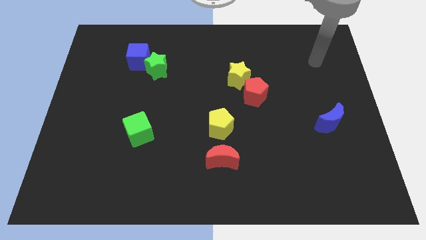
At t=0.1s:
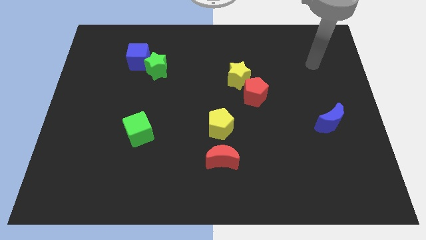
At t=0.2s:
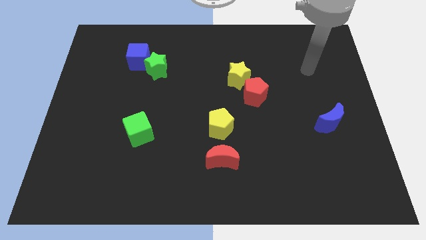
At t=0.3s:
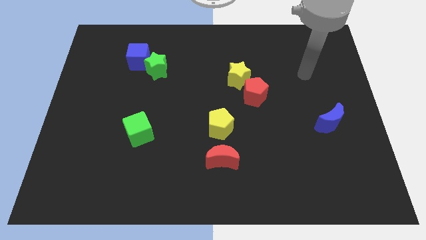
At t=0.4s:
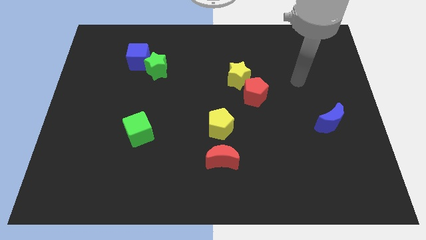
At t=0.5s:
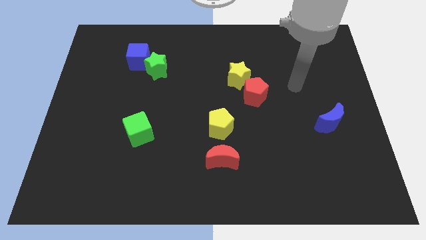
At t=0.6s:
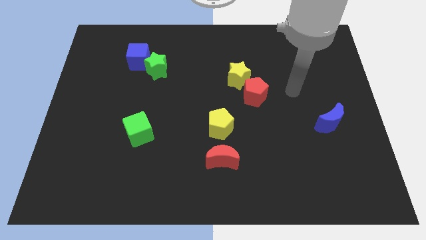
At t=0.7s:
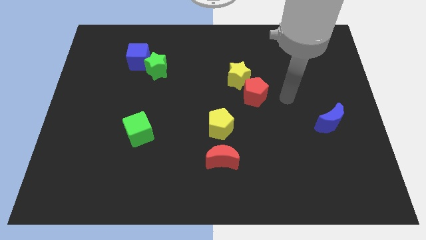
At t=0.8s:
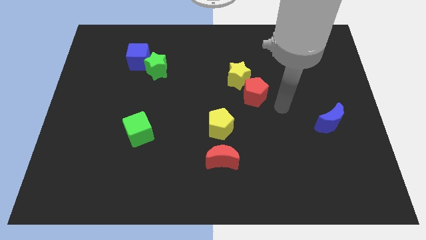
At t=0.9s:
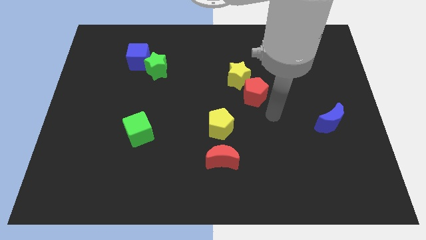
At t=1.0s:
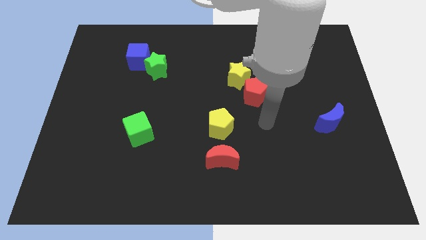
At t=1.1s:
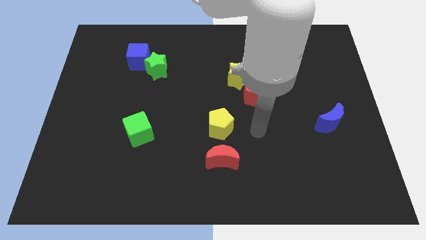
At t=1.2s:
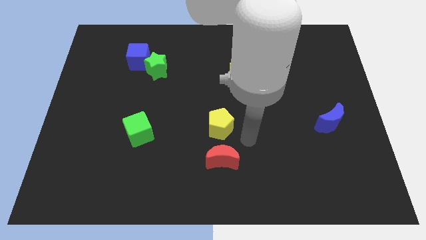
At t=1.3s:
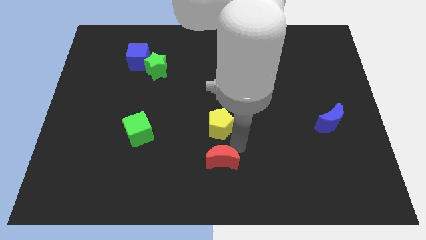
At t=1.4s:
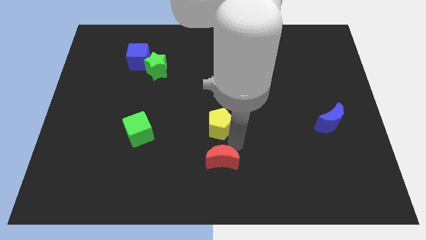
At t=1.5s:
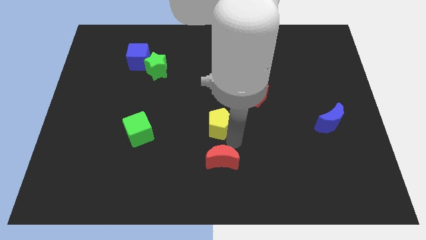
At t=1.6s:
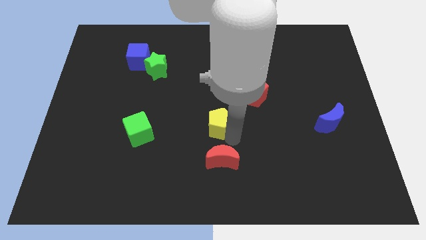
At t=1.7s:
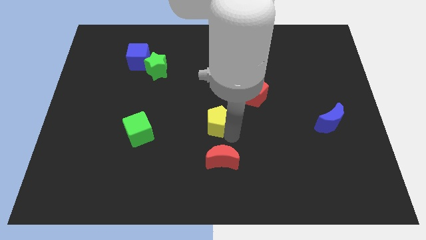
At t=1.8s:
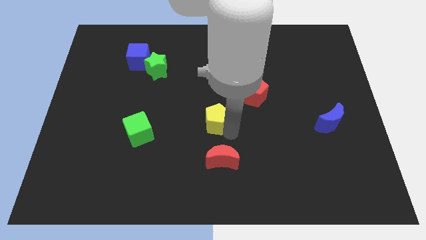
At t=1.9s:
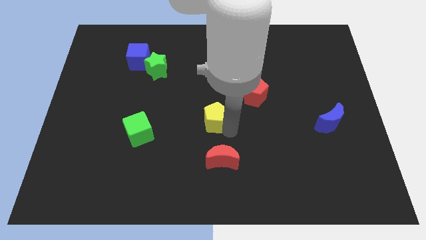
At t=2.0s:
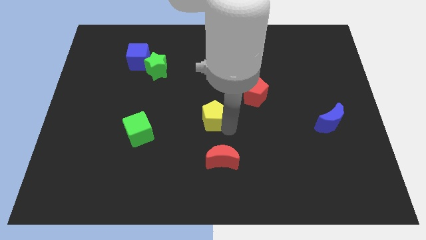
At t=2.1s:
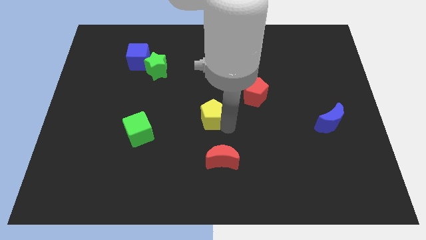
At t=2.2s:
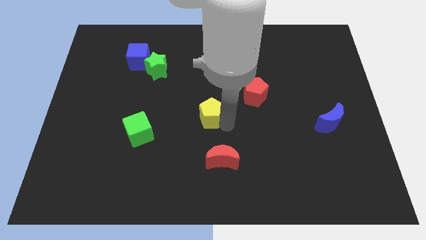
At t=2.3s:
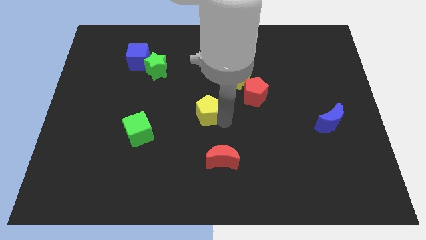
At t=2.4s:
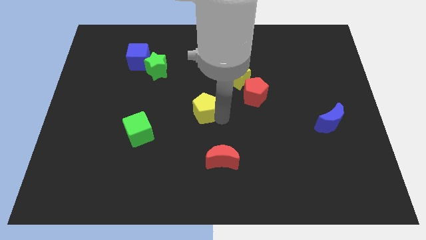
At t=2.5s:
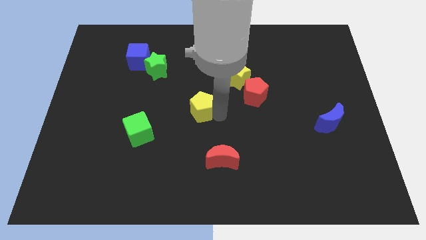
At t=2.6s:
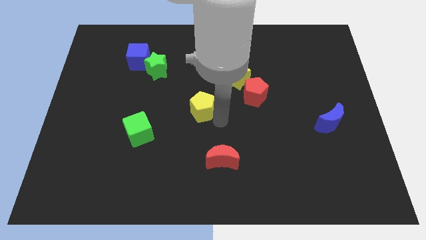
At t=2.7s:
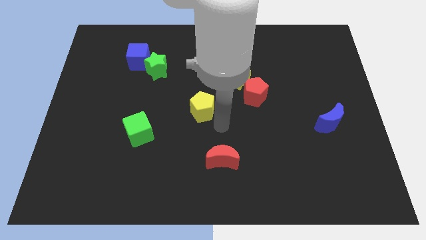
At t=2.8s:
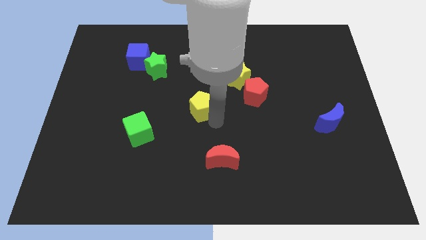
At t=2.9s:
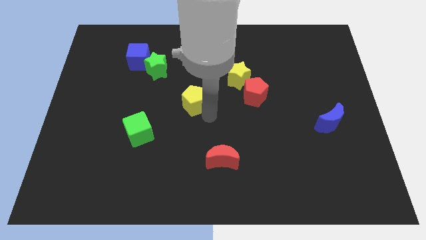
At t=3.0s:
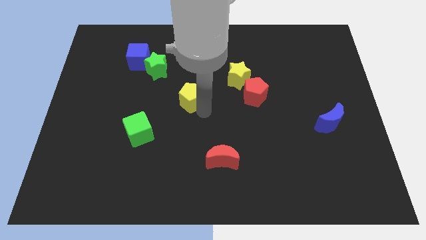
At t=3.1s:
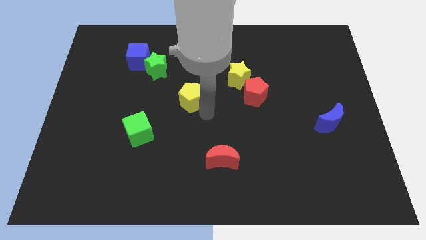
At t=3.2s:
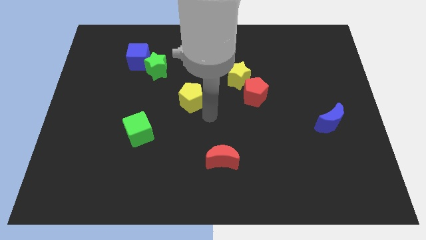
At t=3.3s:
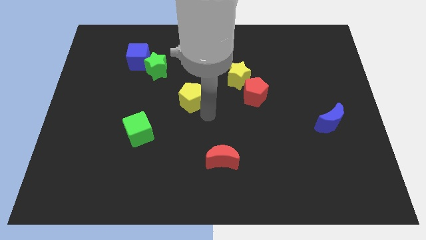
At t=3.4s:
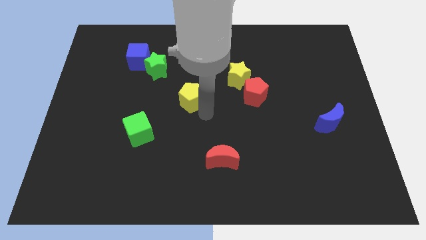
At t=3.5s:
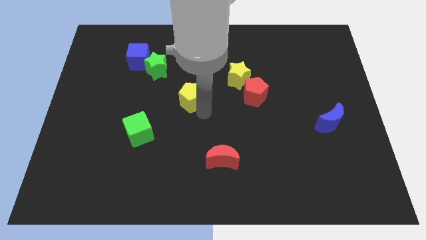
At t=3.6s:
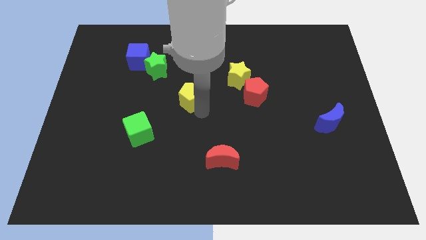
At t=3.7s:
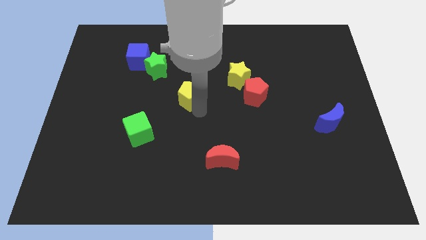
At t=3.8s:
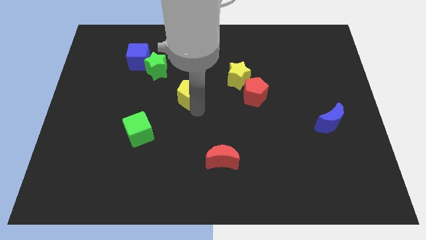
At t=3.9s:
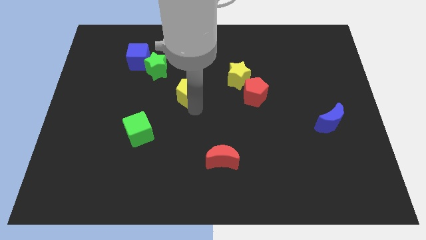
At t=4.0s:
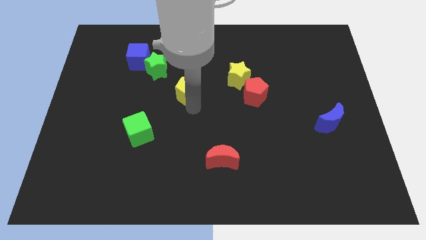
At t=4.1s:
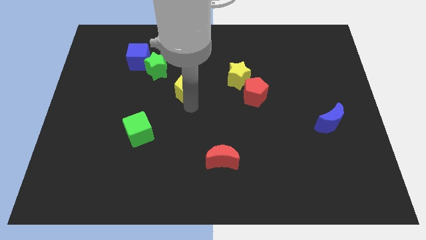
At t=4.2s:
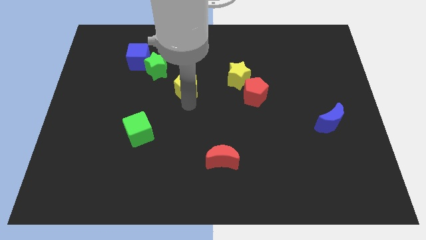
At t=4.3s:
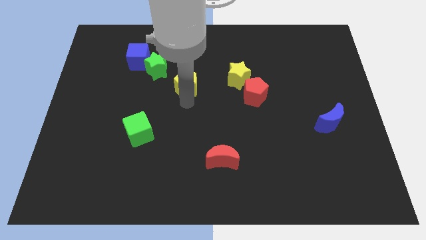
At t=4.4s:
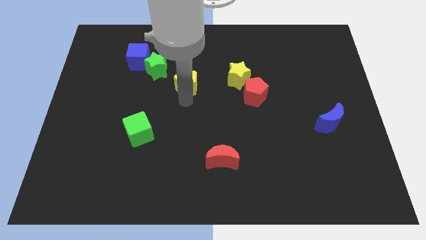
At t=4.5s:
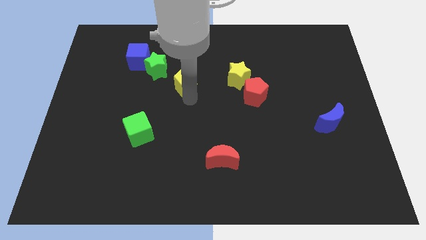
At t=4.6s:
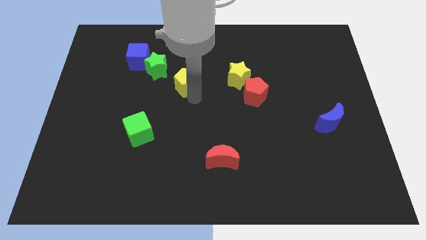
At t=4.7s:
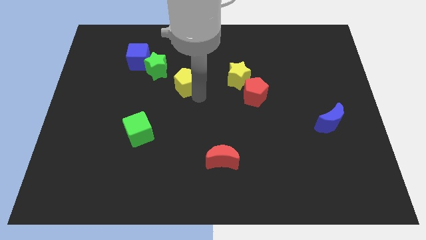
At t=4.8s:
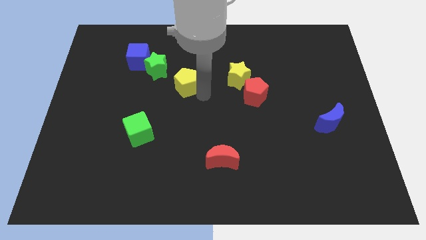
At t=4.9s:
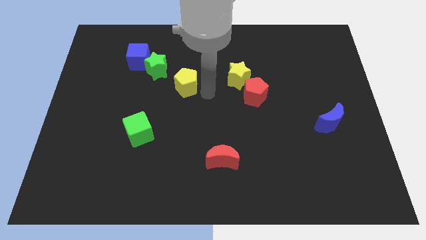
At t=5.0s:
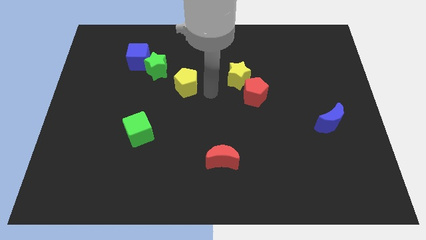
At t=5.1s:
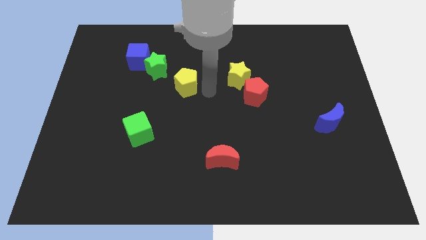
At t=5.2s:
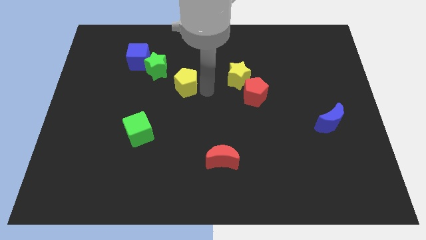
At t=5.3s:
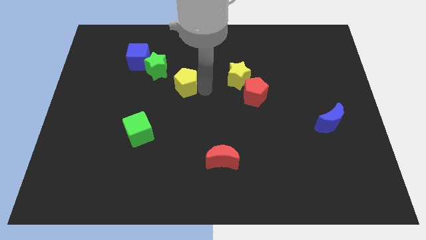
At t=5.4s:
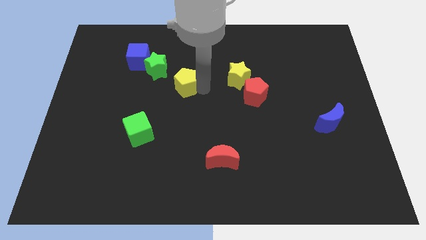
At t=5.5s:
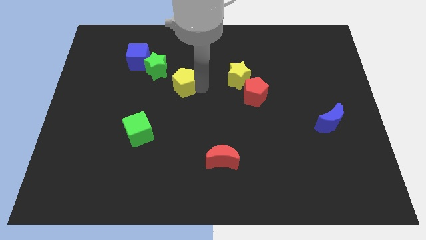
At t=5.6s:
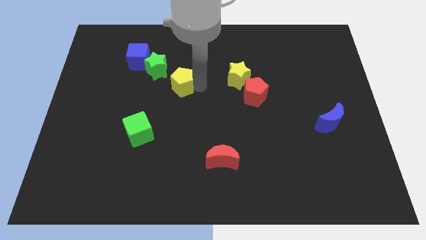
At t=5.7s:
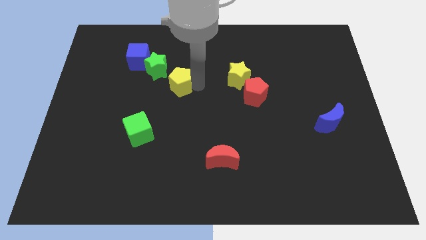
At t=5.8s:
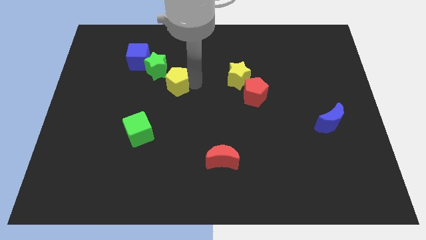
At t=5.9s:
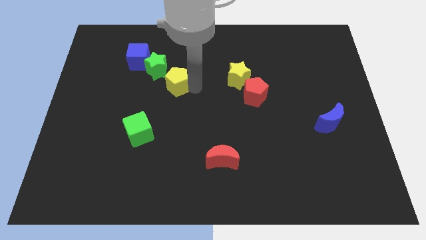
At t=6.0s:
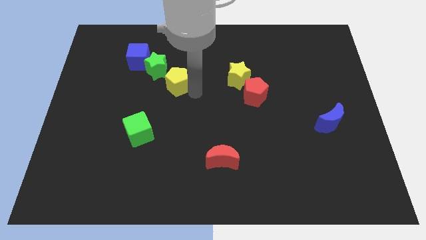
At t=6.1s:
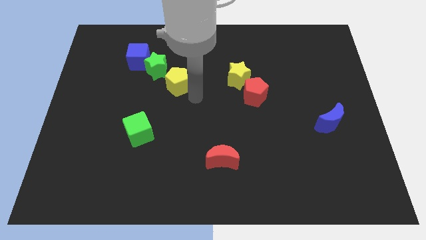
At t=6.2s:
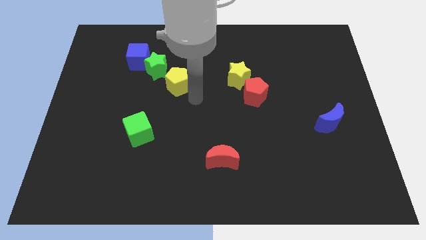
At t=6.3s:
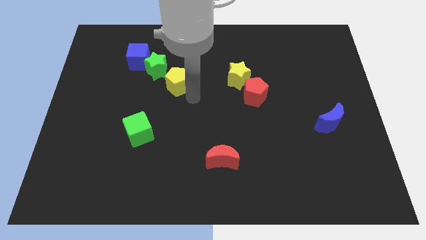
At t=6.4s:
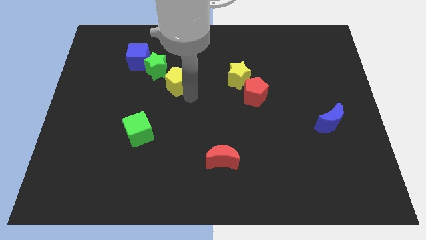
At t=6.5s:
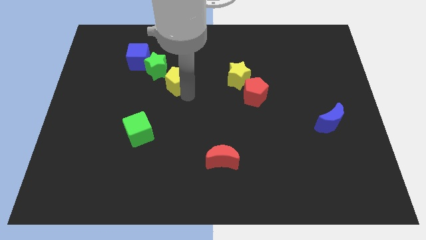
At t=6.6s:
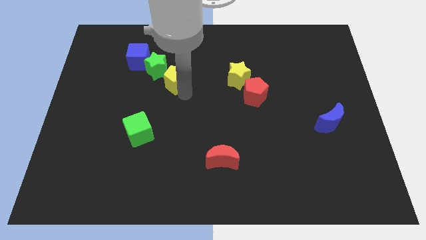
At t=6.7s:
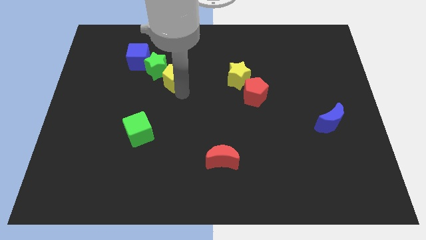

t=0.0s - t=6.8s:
put the yellow pentagon close to the green star

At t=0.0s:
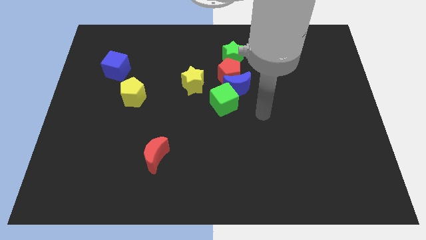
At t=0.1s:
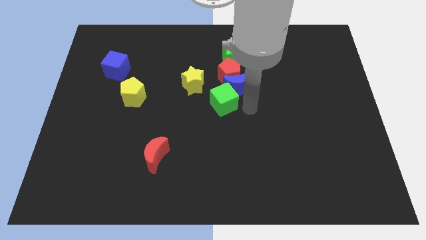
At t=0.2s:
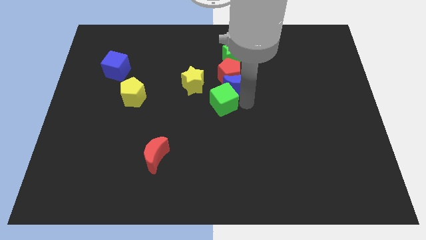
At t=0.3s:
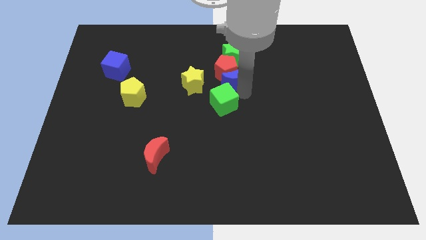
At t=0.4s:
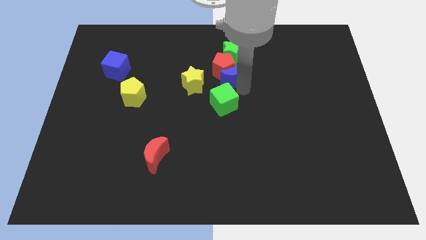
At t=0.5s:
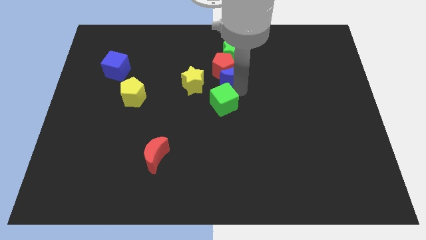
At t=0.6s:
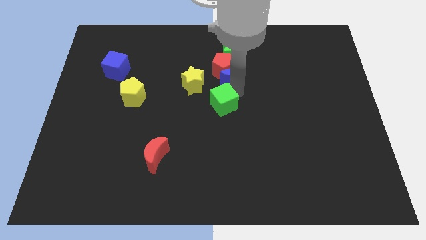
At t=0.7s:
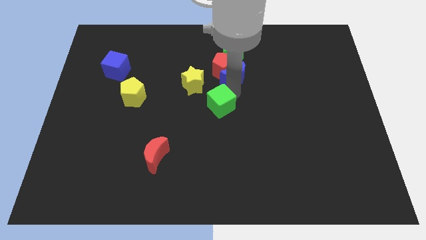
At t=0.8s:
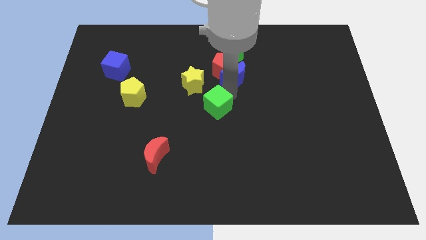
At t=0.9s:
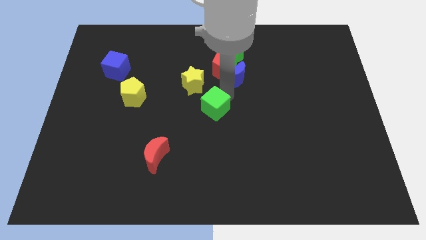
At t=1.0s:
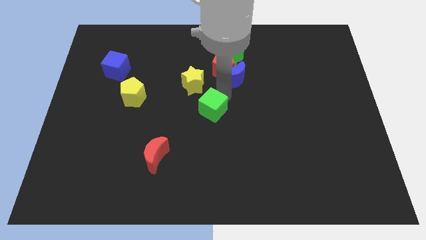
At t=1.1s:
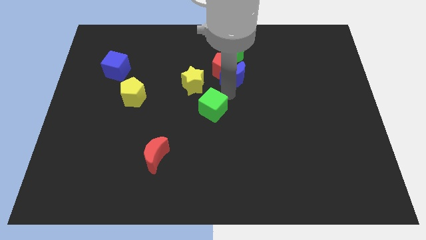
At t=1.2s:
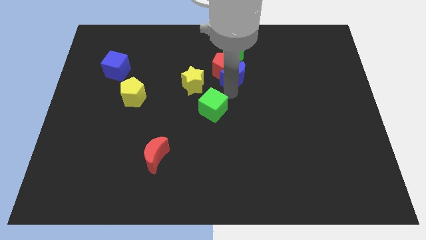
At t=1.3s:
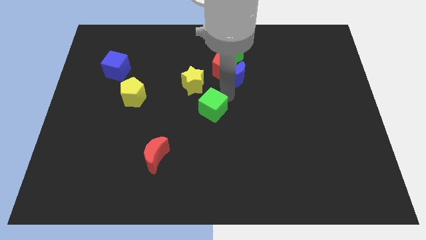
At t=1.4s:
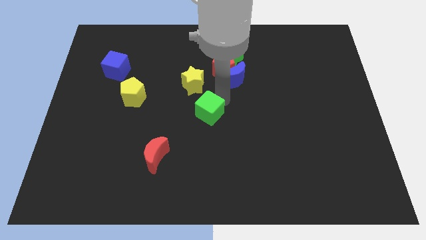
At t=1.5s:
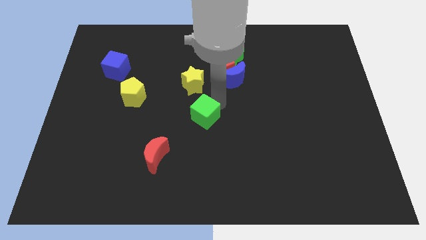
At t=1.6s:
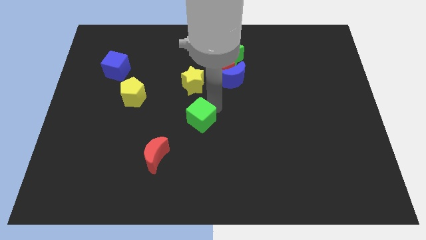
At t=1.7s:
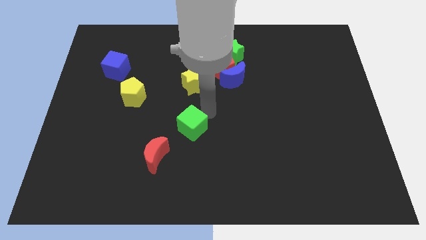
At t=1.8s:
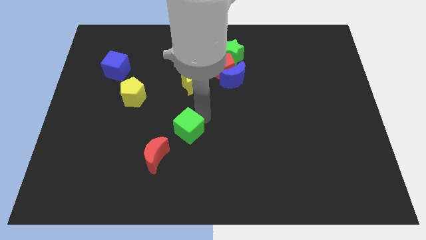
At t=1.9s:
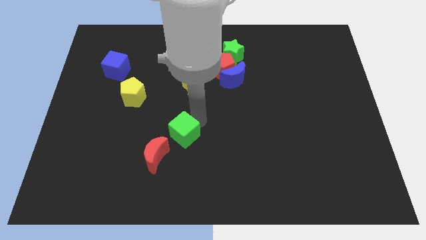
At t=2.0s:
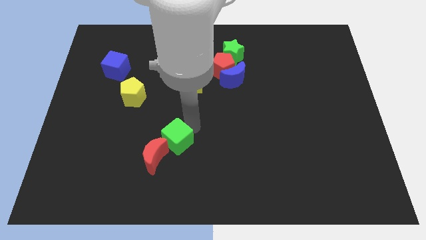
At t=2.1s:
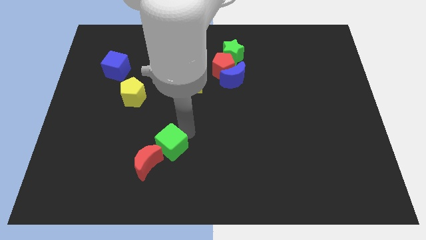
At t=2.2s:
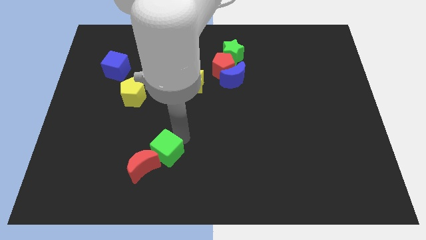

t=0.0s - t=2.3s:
push the green cube close to the red moon
